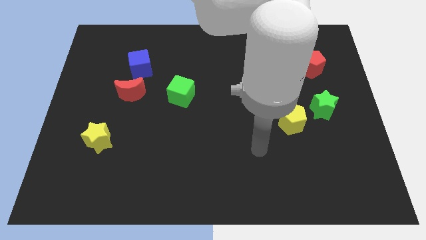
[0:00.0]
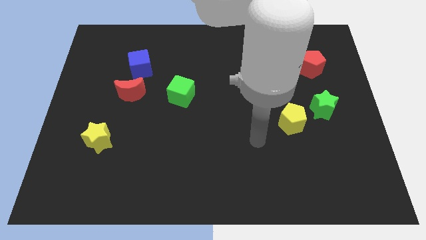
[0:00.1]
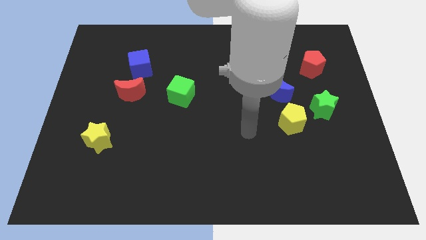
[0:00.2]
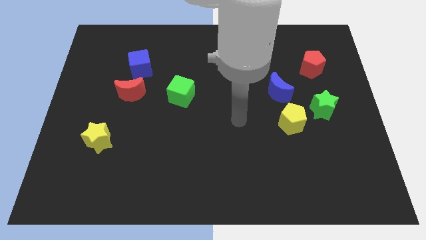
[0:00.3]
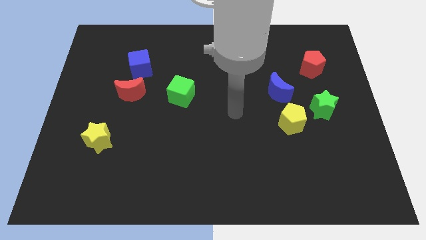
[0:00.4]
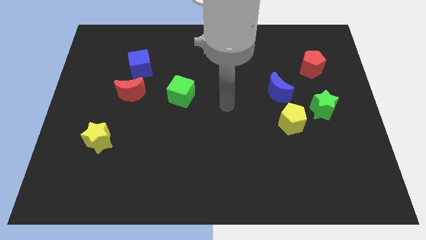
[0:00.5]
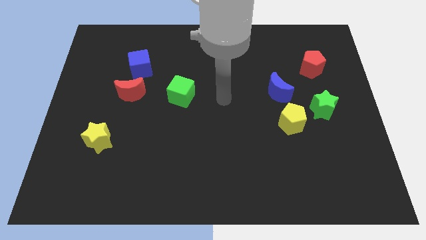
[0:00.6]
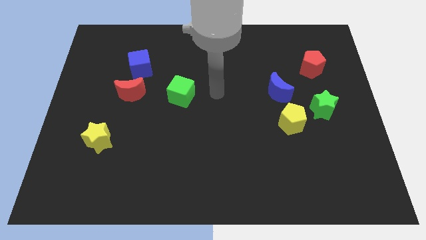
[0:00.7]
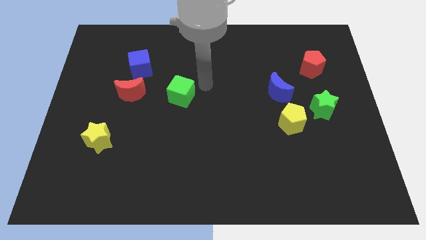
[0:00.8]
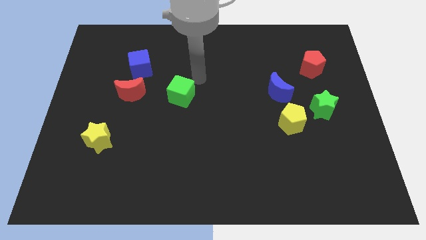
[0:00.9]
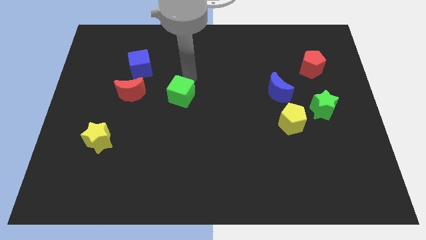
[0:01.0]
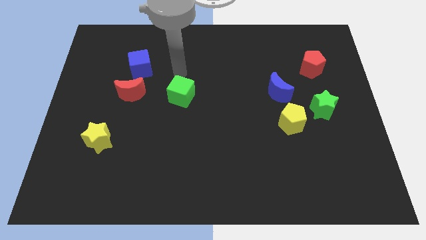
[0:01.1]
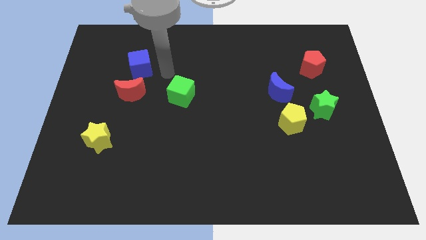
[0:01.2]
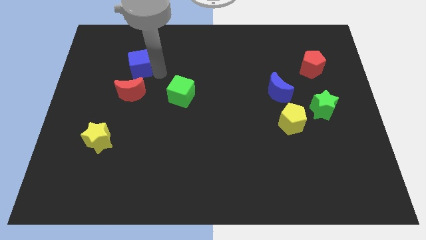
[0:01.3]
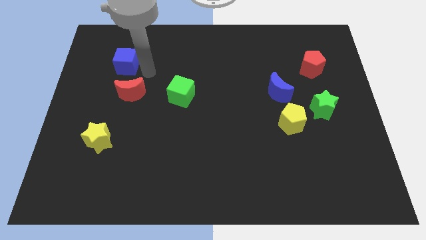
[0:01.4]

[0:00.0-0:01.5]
separate the red moon from the blue cube

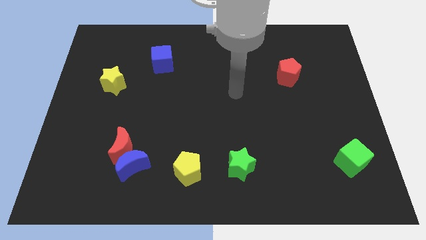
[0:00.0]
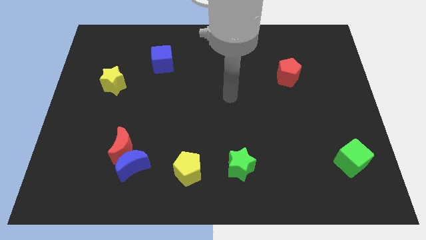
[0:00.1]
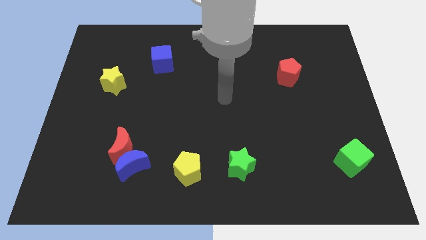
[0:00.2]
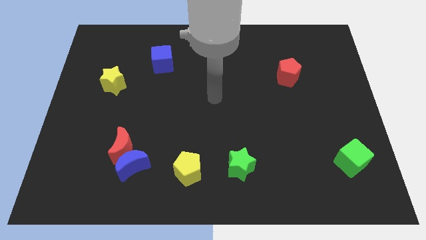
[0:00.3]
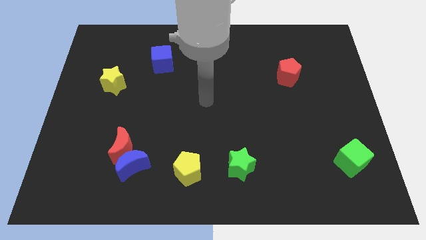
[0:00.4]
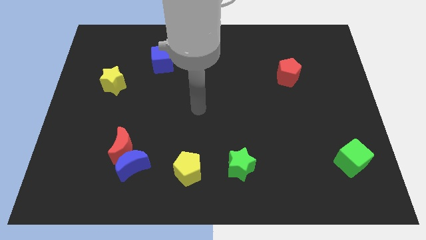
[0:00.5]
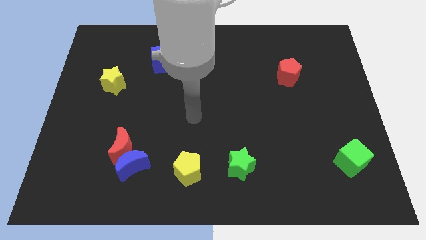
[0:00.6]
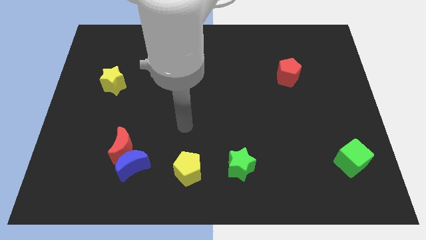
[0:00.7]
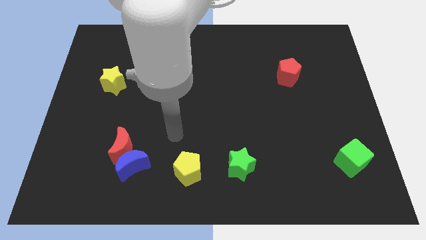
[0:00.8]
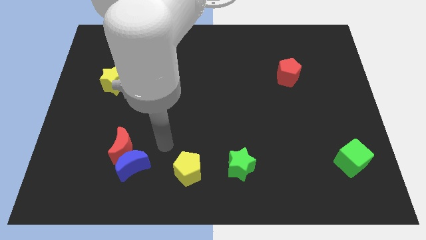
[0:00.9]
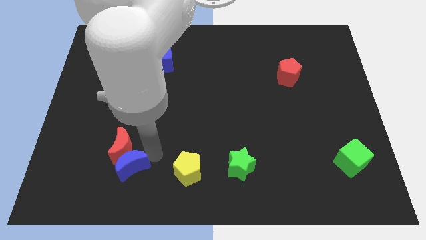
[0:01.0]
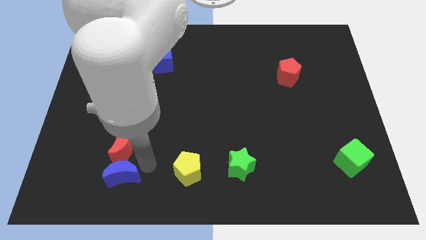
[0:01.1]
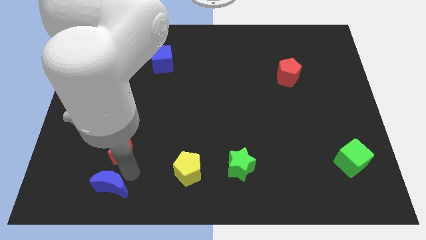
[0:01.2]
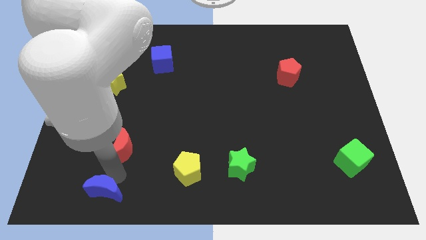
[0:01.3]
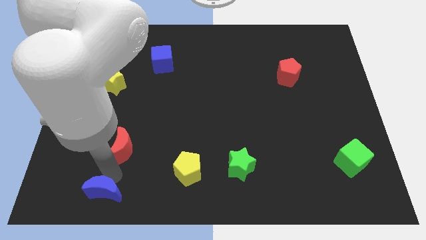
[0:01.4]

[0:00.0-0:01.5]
move the red moon away from the blue moon

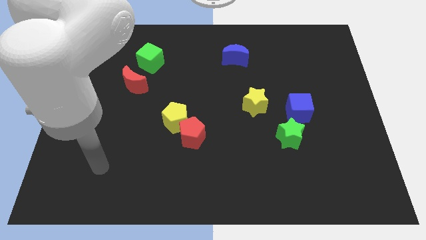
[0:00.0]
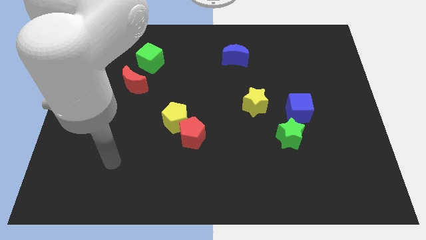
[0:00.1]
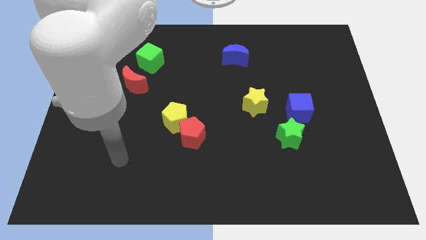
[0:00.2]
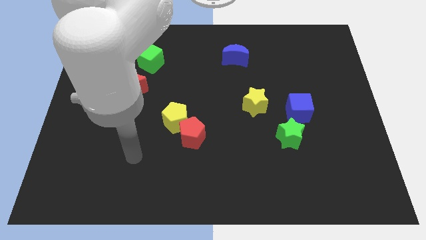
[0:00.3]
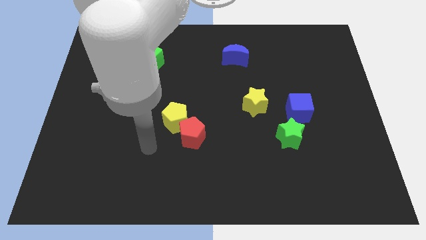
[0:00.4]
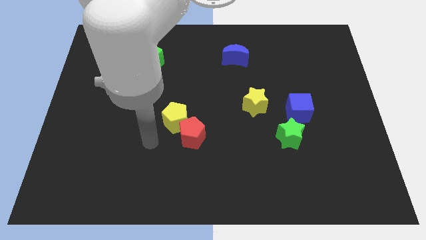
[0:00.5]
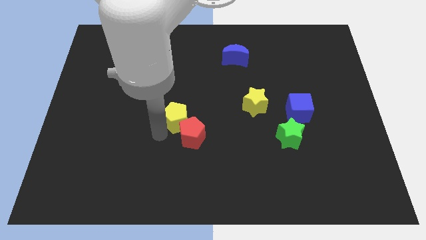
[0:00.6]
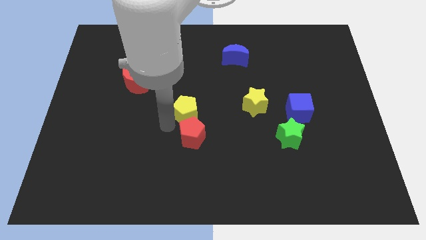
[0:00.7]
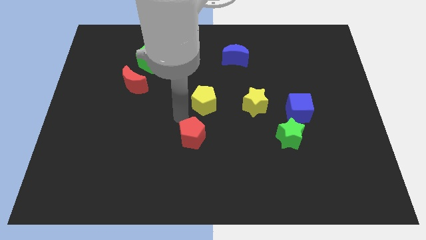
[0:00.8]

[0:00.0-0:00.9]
separate the red pentagon from the yellow pentagon

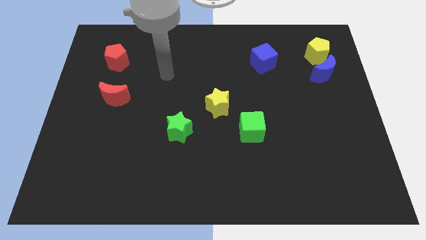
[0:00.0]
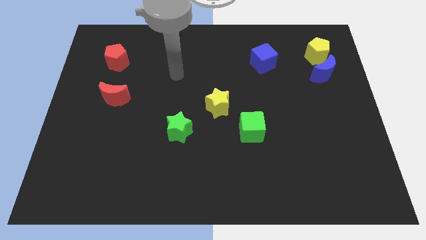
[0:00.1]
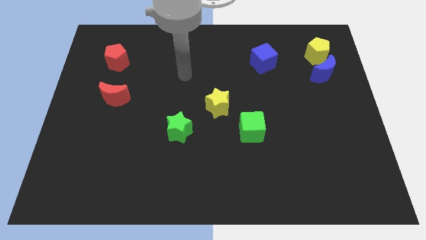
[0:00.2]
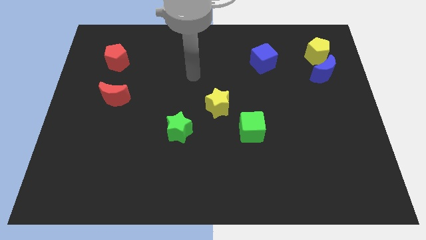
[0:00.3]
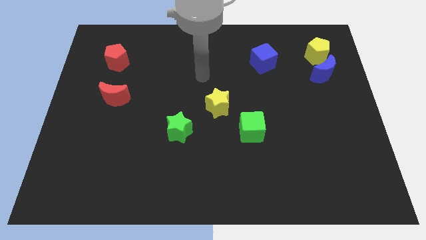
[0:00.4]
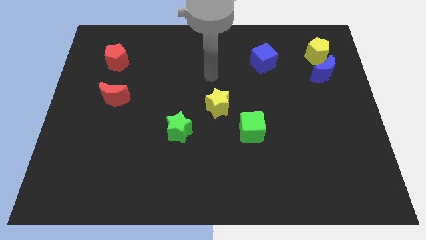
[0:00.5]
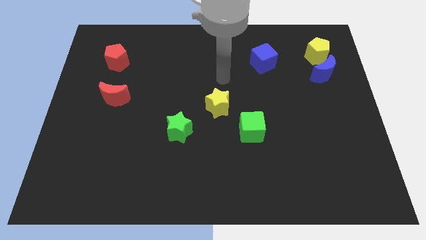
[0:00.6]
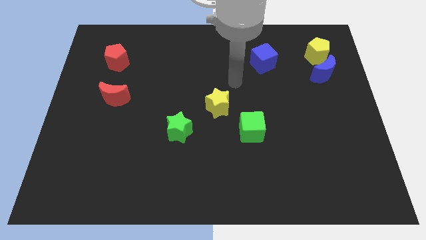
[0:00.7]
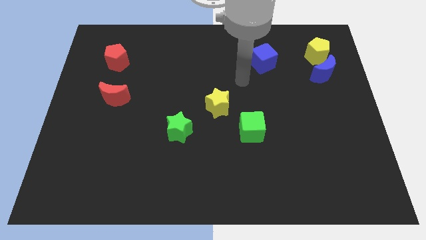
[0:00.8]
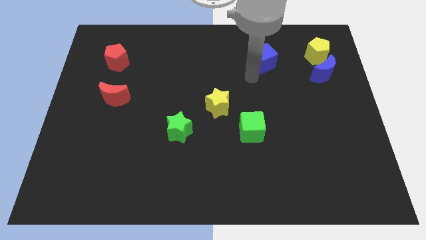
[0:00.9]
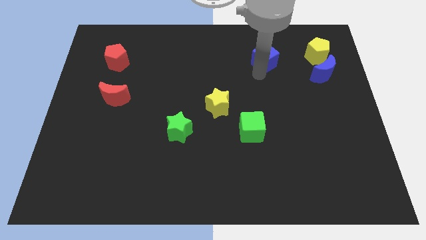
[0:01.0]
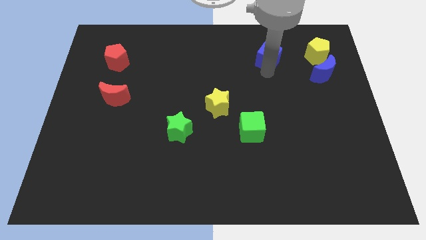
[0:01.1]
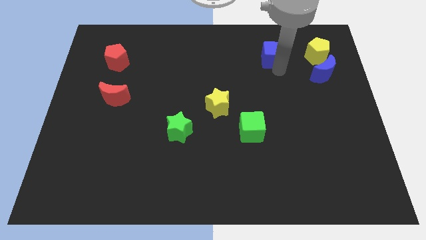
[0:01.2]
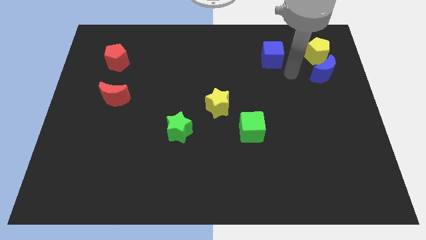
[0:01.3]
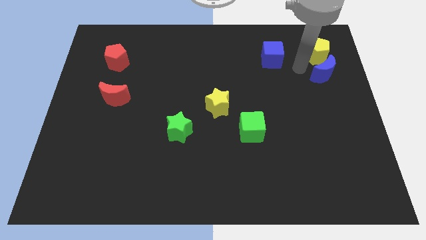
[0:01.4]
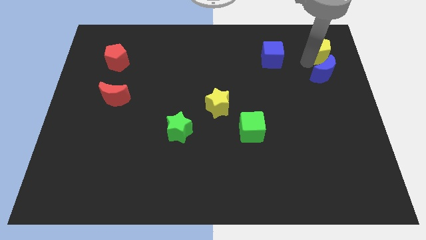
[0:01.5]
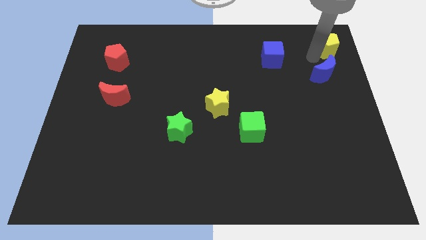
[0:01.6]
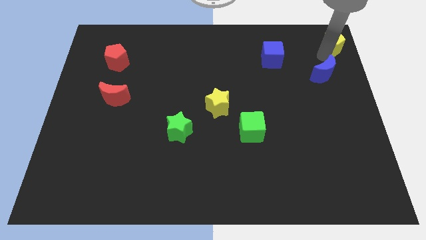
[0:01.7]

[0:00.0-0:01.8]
pull the blue moon apart from the yellow pentagon

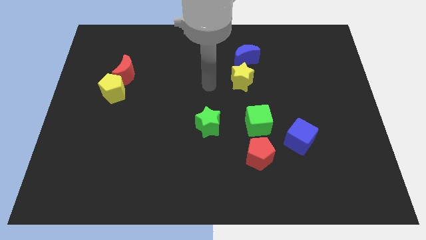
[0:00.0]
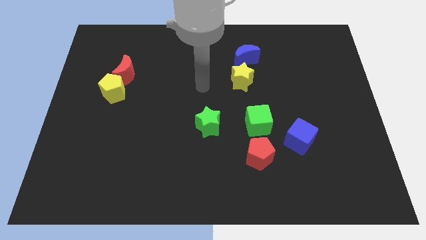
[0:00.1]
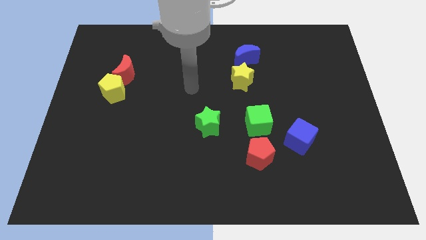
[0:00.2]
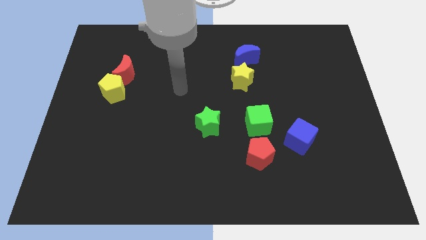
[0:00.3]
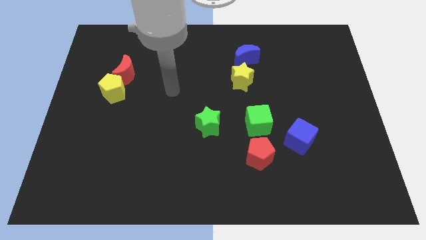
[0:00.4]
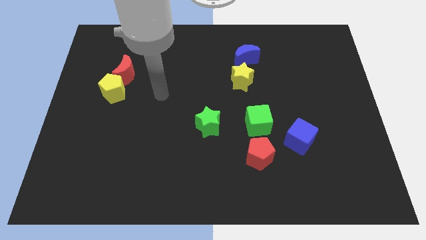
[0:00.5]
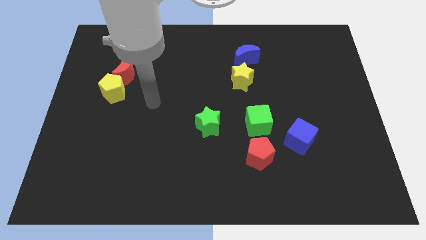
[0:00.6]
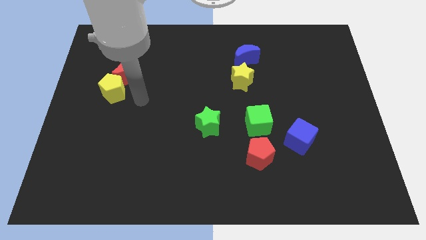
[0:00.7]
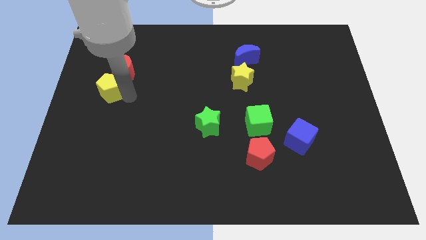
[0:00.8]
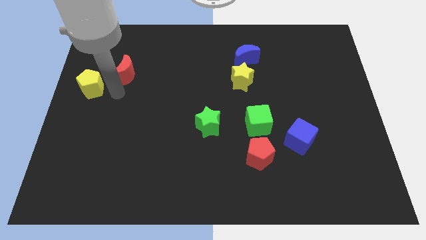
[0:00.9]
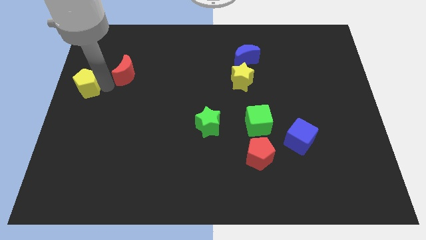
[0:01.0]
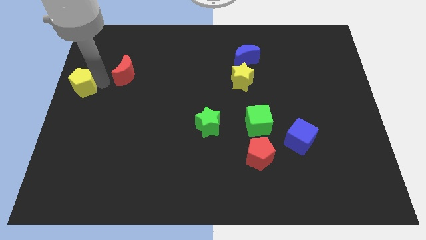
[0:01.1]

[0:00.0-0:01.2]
separate the red moon from the yellow pentagon

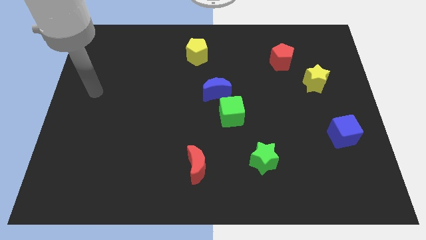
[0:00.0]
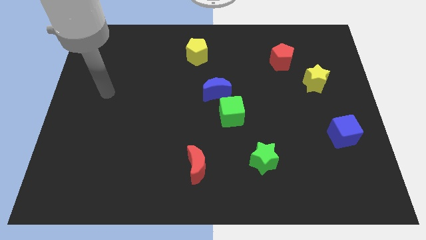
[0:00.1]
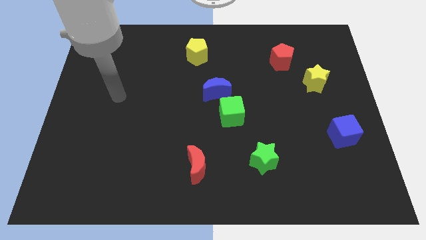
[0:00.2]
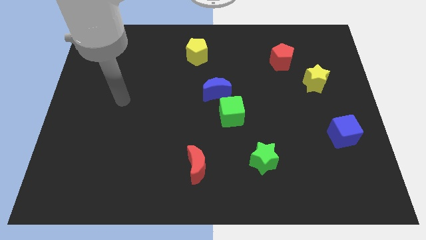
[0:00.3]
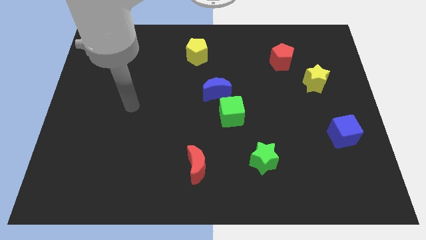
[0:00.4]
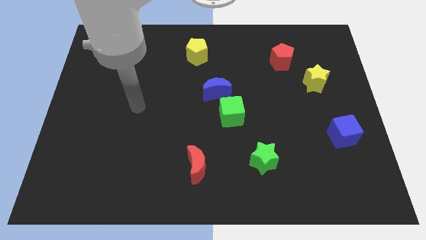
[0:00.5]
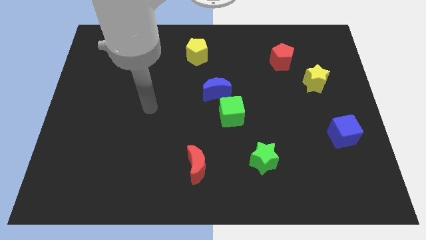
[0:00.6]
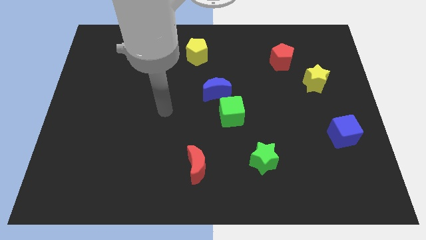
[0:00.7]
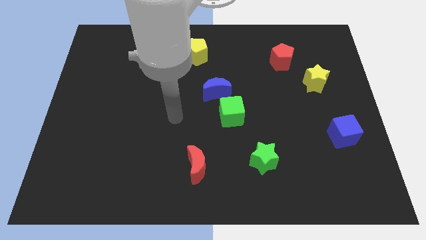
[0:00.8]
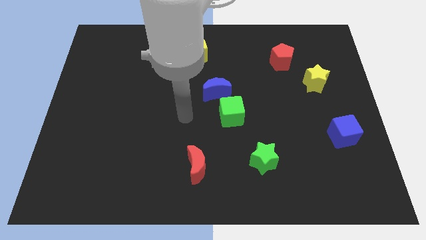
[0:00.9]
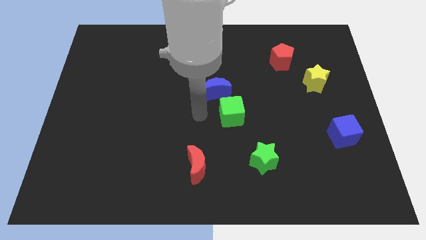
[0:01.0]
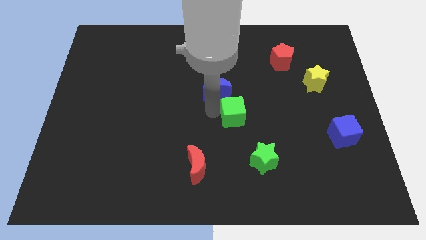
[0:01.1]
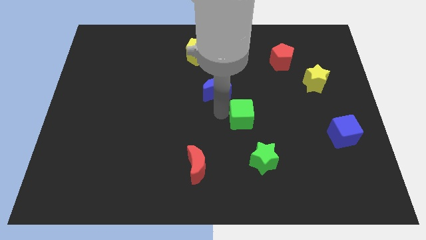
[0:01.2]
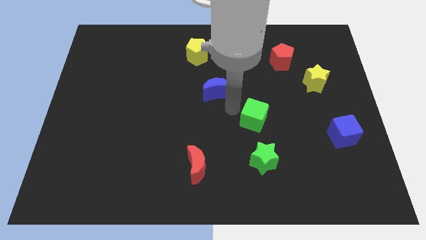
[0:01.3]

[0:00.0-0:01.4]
separate the blue moon from the green cube

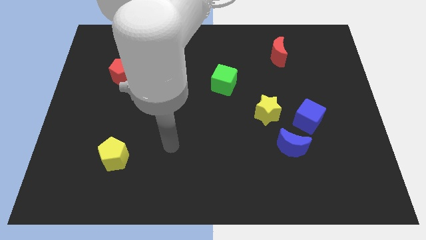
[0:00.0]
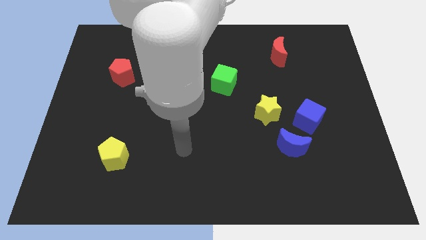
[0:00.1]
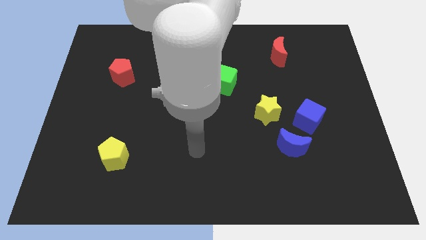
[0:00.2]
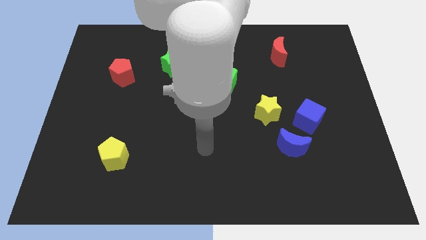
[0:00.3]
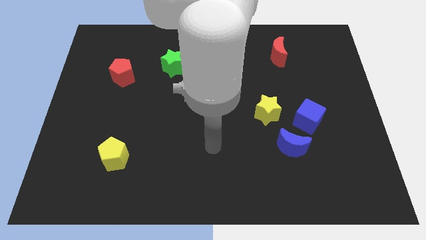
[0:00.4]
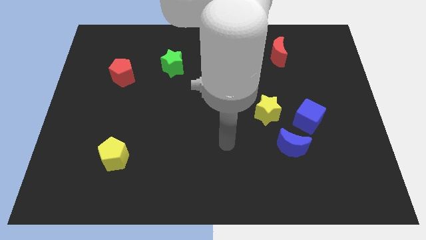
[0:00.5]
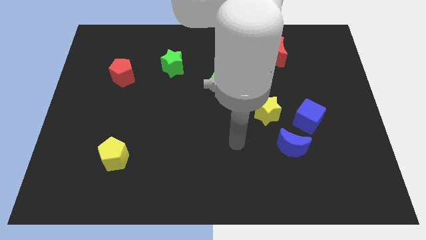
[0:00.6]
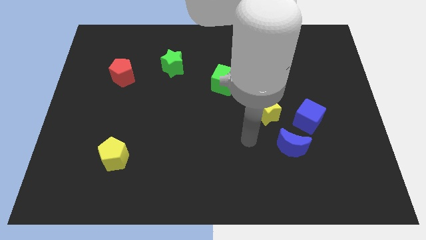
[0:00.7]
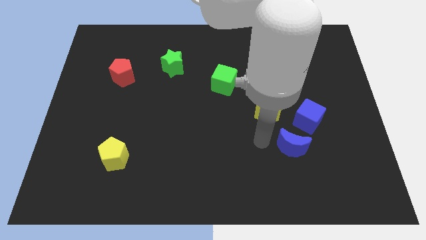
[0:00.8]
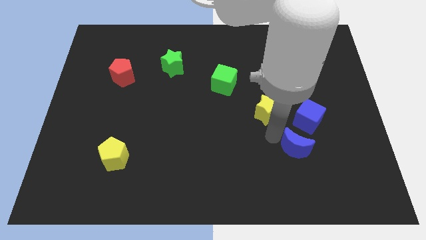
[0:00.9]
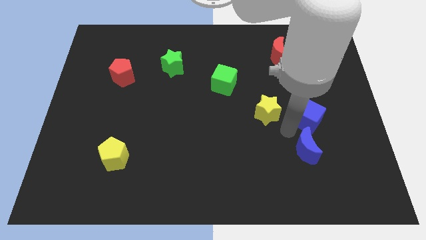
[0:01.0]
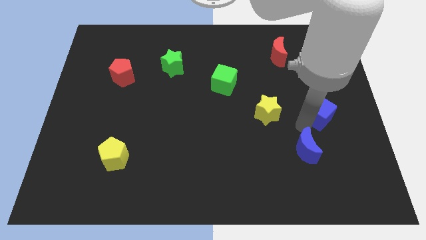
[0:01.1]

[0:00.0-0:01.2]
separate the blue moon from the blue cube
